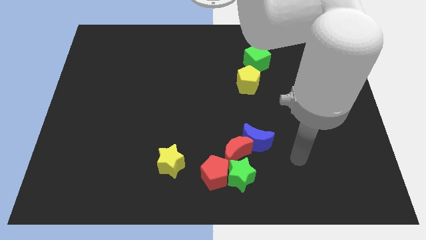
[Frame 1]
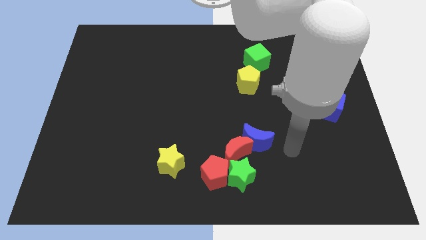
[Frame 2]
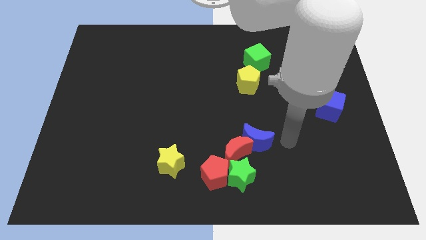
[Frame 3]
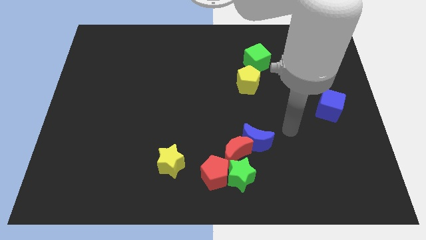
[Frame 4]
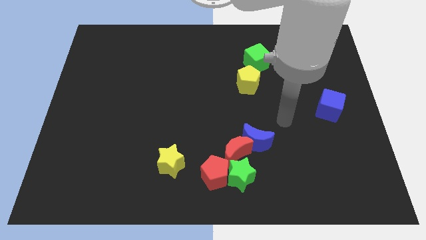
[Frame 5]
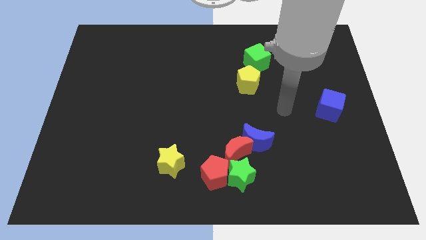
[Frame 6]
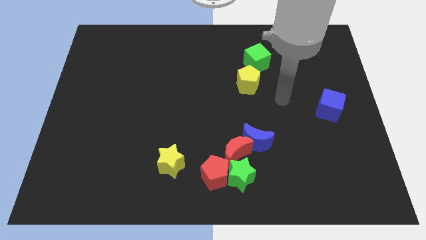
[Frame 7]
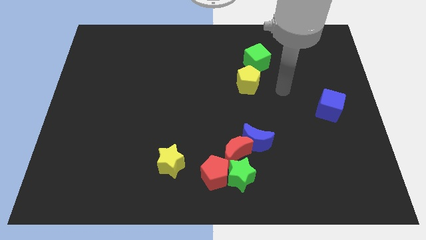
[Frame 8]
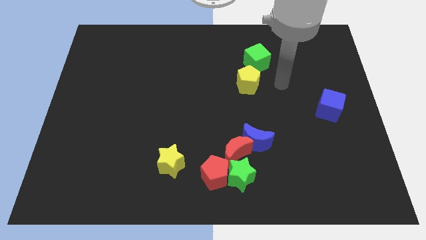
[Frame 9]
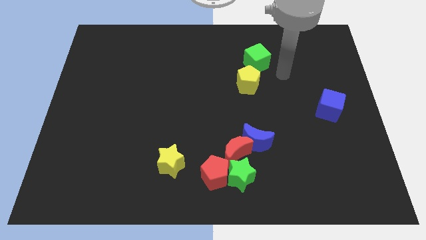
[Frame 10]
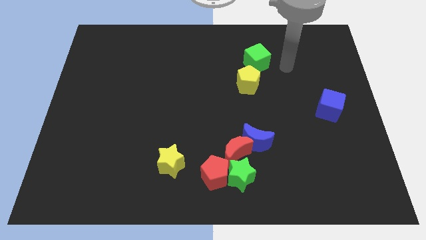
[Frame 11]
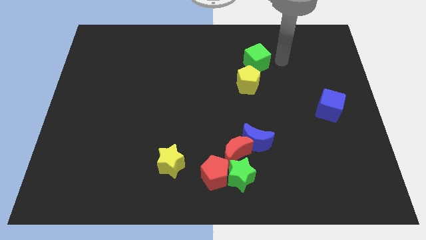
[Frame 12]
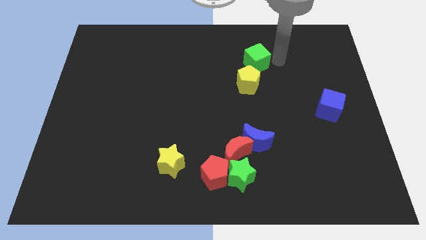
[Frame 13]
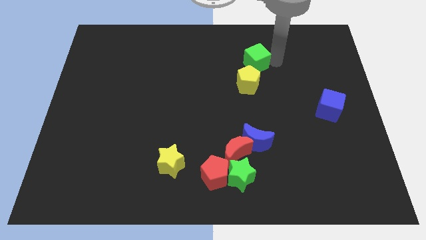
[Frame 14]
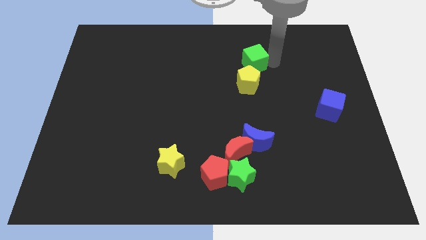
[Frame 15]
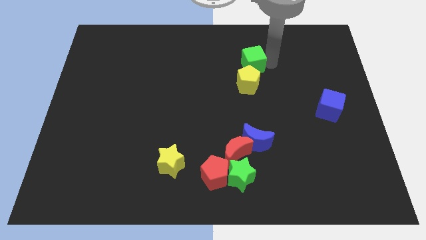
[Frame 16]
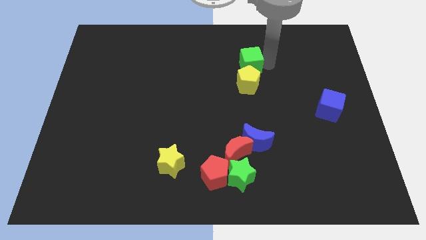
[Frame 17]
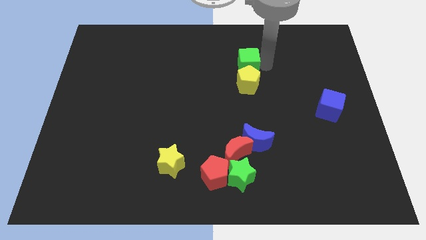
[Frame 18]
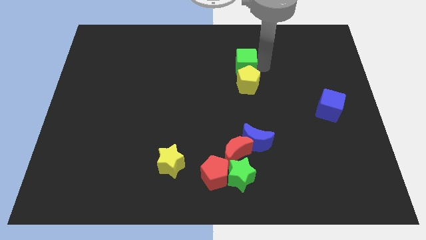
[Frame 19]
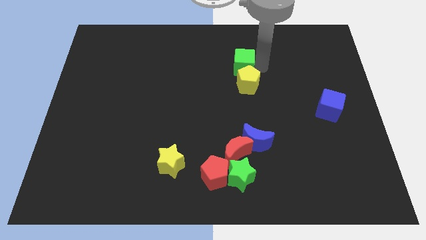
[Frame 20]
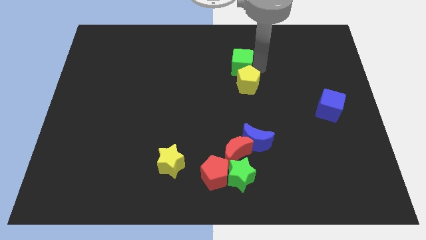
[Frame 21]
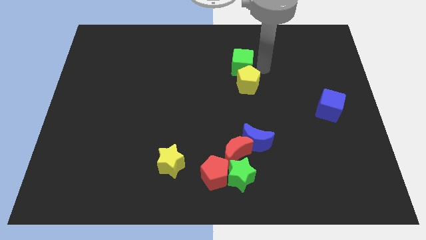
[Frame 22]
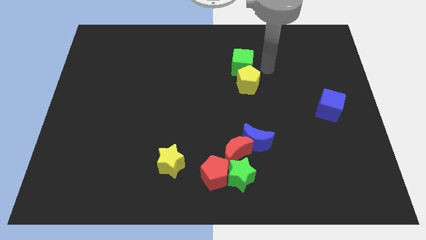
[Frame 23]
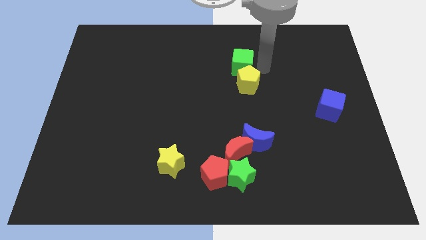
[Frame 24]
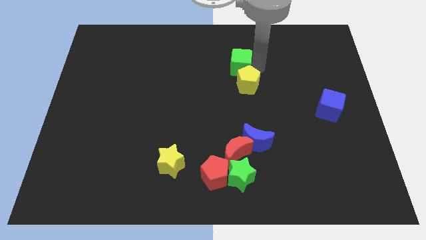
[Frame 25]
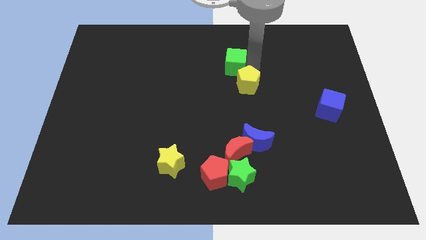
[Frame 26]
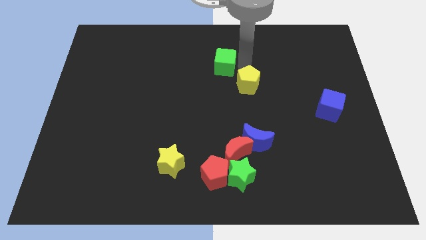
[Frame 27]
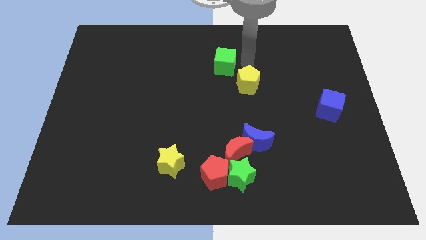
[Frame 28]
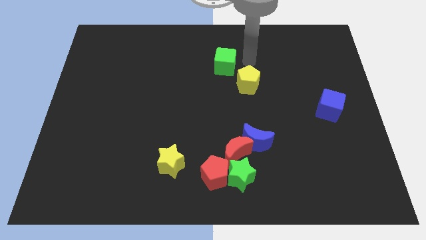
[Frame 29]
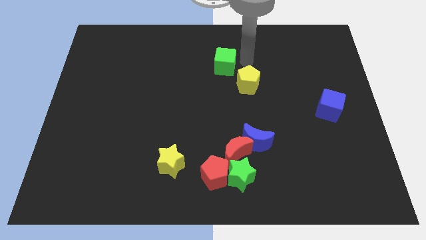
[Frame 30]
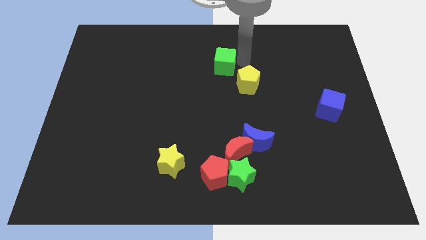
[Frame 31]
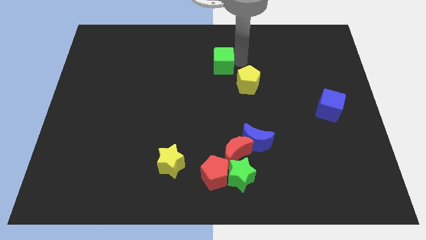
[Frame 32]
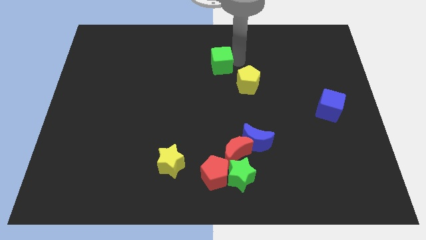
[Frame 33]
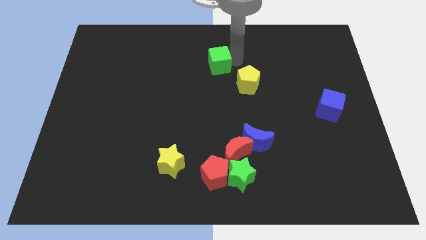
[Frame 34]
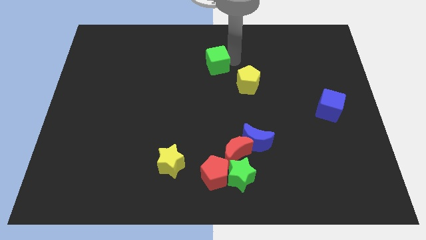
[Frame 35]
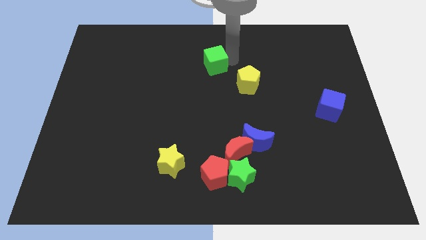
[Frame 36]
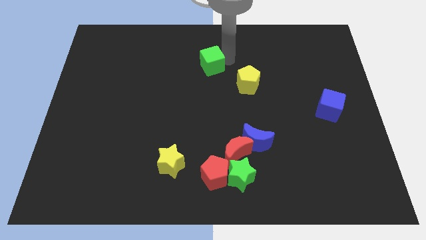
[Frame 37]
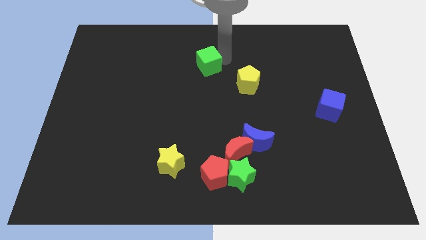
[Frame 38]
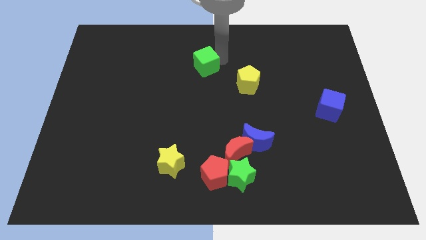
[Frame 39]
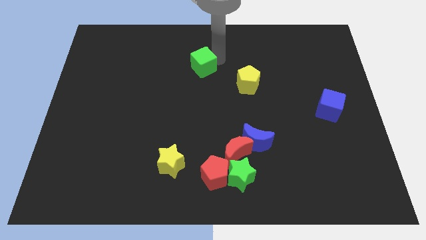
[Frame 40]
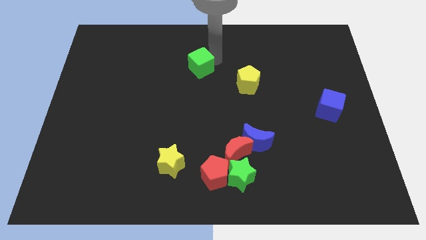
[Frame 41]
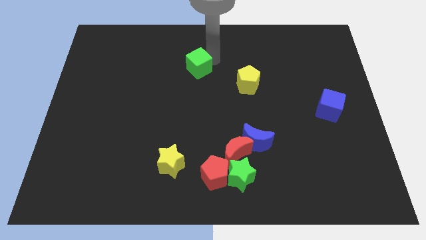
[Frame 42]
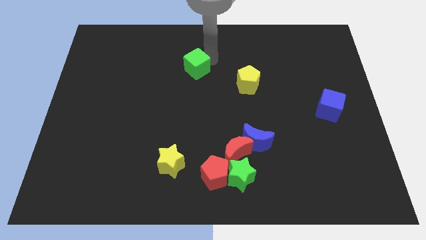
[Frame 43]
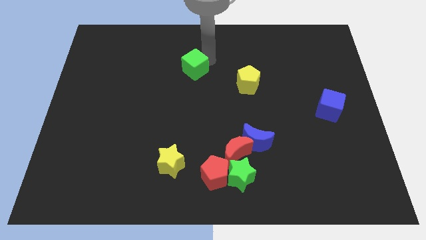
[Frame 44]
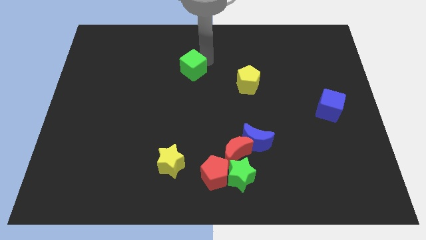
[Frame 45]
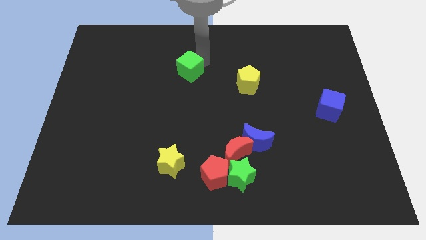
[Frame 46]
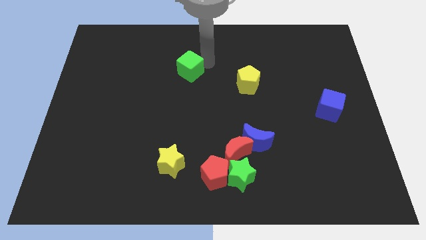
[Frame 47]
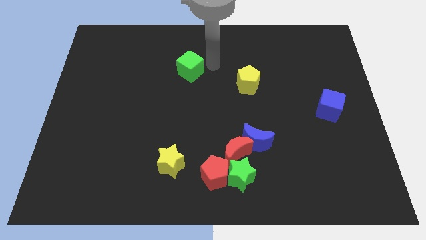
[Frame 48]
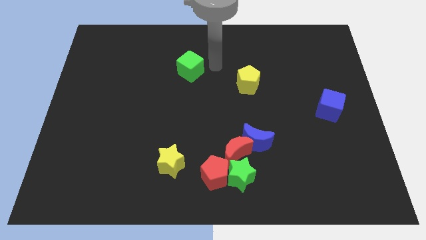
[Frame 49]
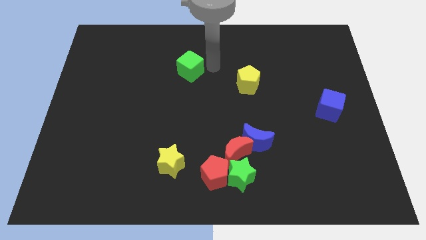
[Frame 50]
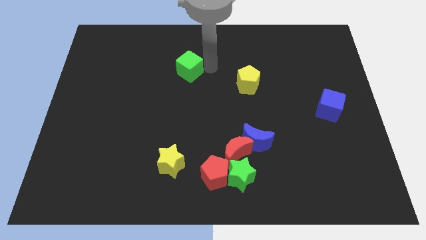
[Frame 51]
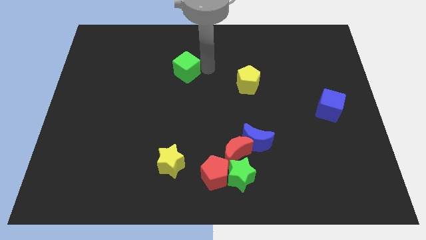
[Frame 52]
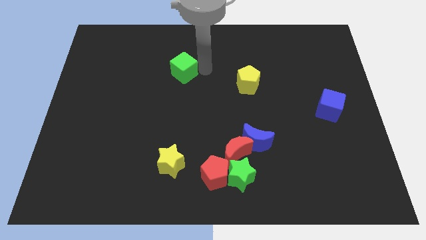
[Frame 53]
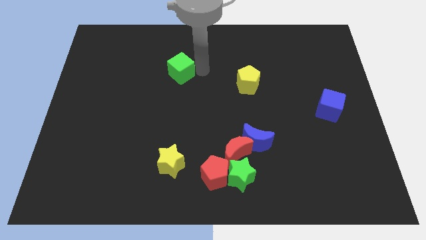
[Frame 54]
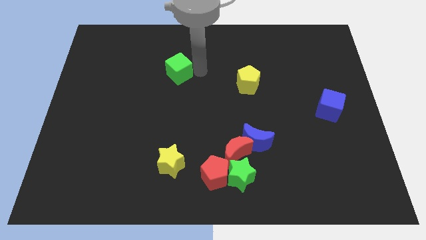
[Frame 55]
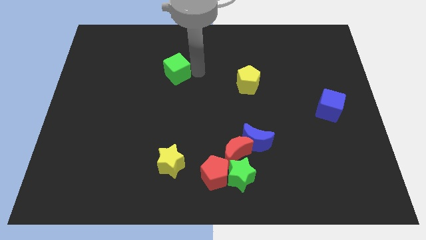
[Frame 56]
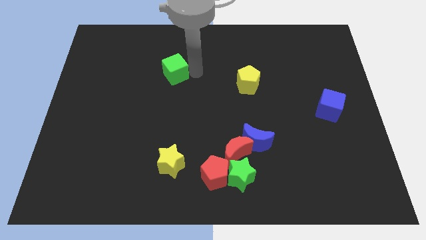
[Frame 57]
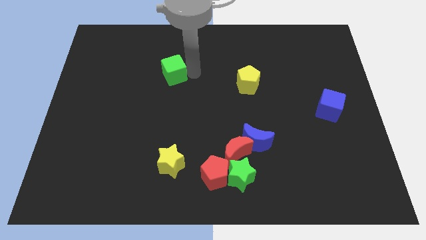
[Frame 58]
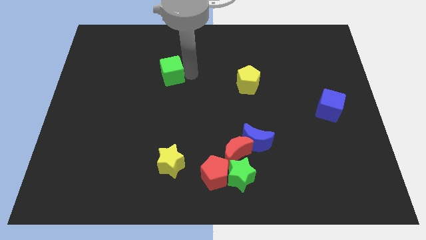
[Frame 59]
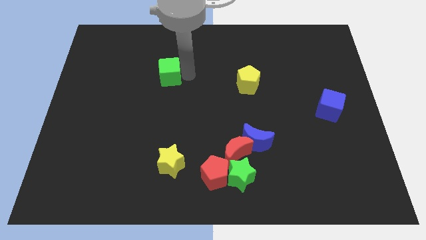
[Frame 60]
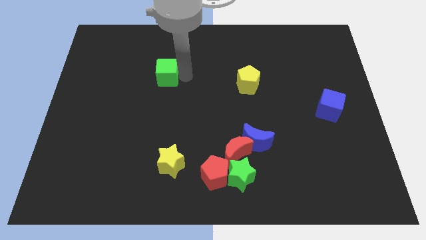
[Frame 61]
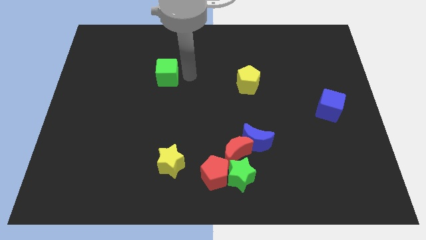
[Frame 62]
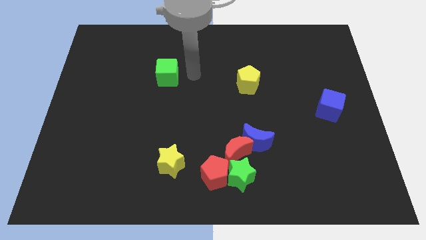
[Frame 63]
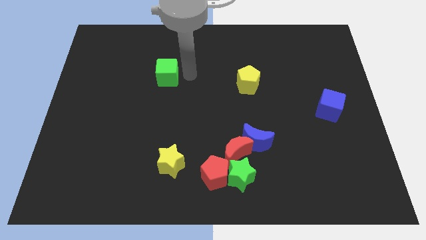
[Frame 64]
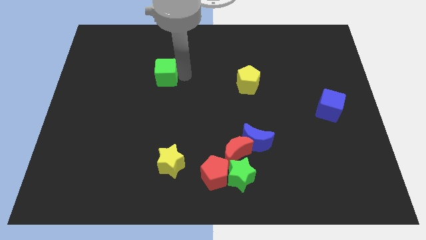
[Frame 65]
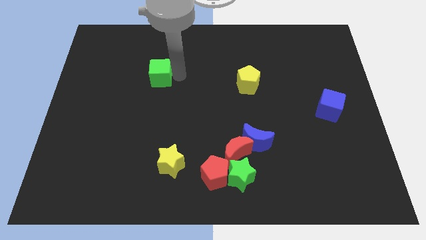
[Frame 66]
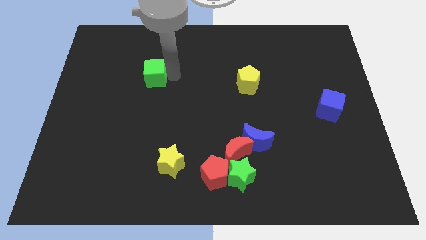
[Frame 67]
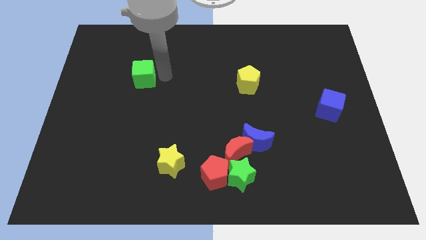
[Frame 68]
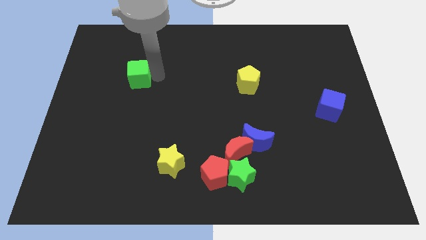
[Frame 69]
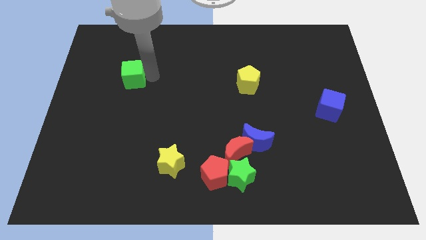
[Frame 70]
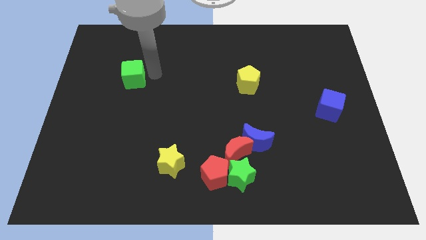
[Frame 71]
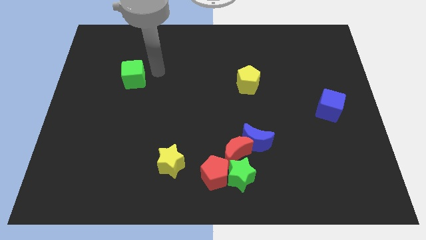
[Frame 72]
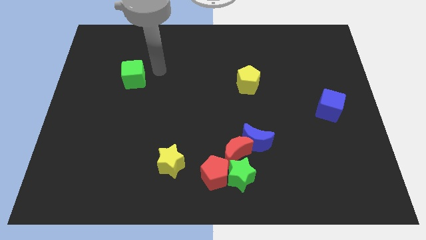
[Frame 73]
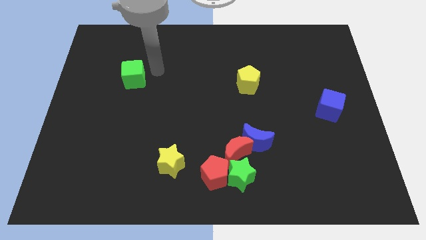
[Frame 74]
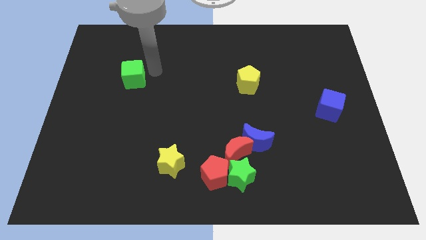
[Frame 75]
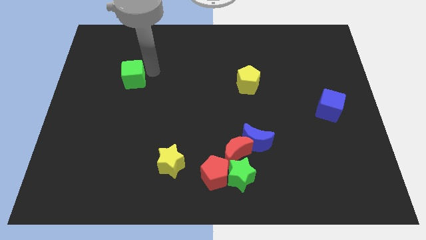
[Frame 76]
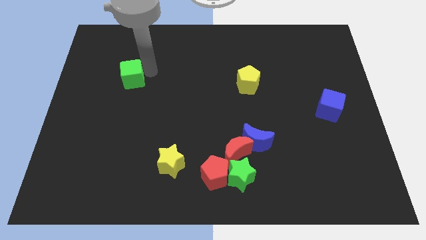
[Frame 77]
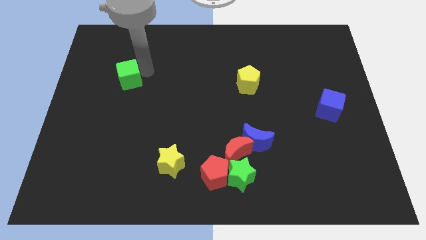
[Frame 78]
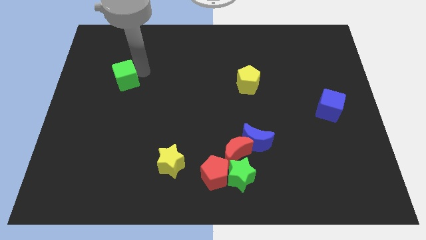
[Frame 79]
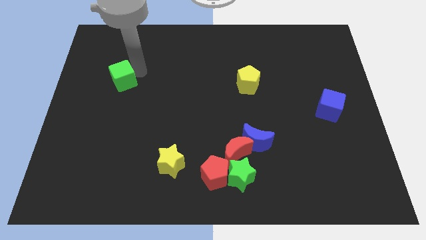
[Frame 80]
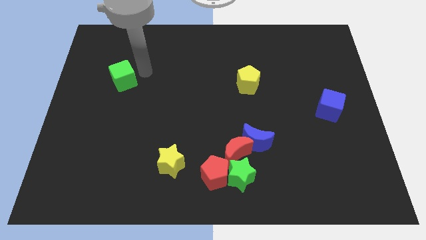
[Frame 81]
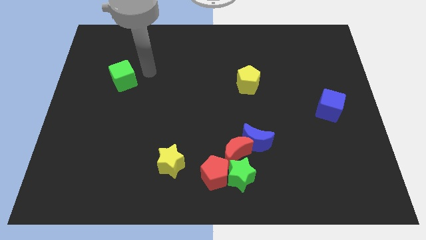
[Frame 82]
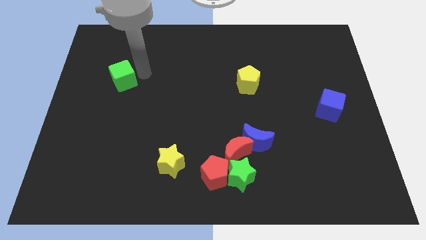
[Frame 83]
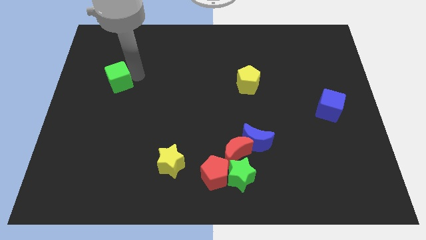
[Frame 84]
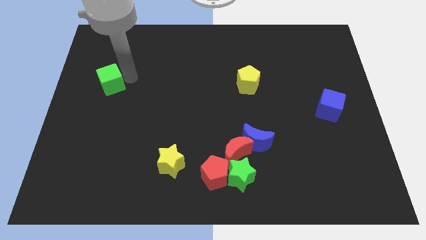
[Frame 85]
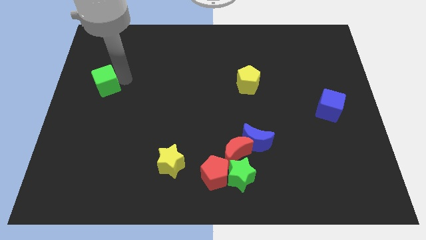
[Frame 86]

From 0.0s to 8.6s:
push the green cube to the center left
